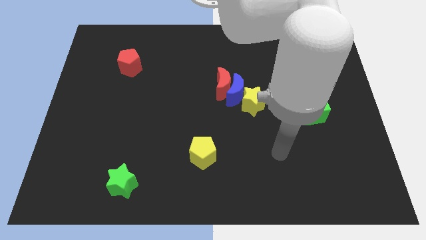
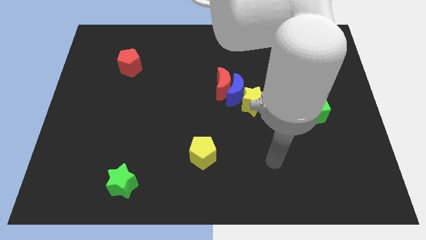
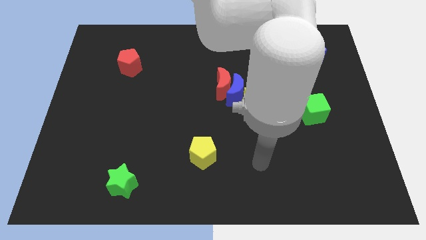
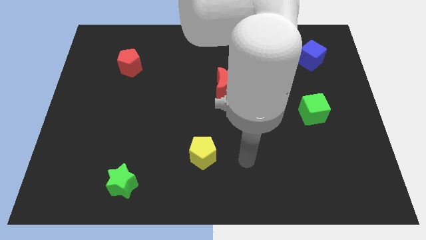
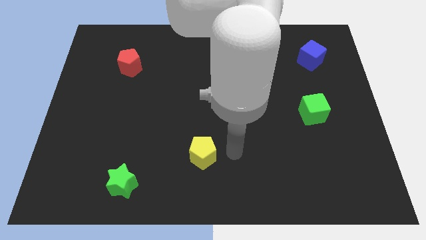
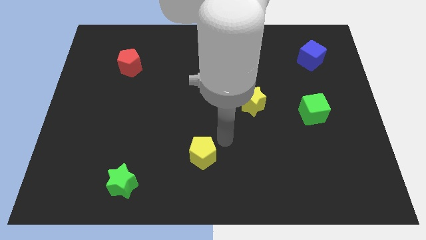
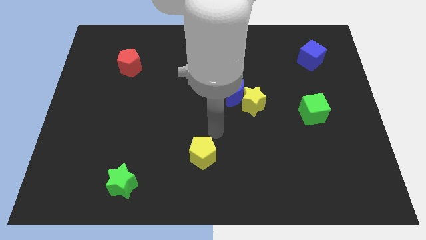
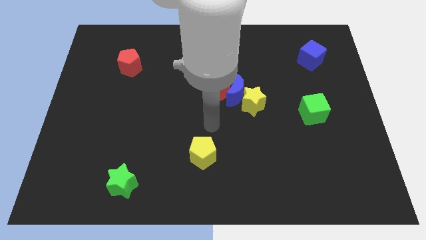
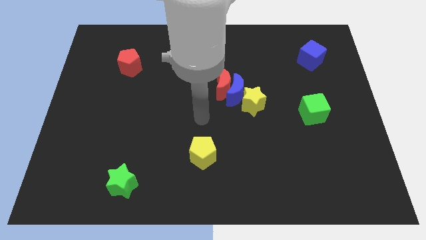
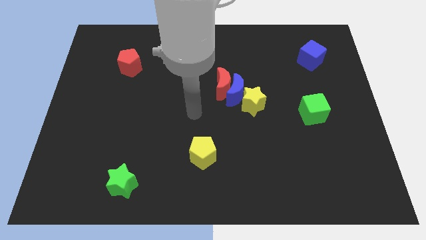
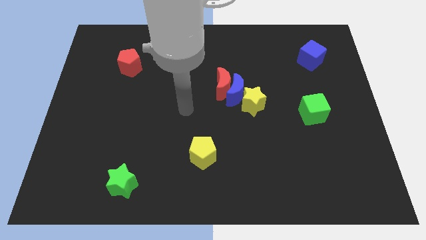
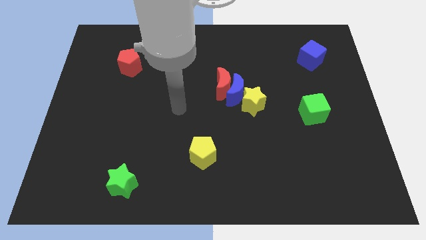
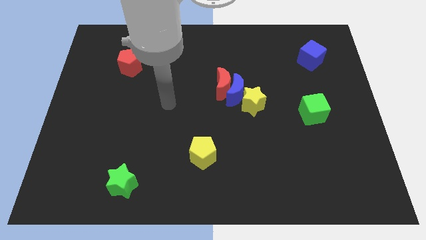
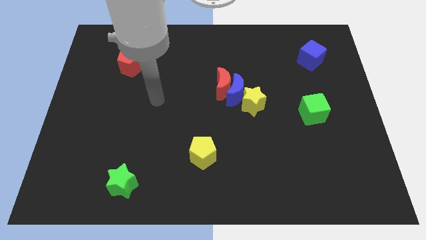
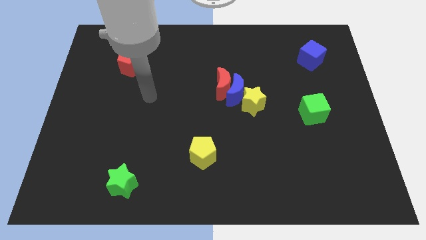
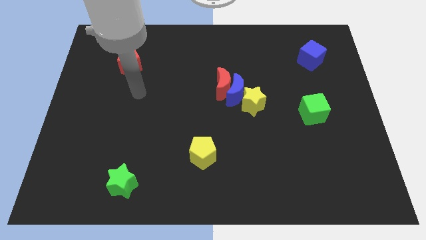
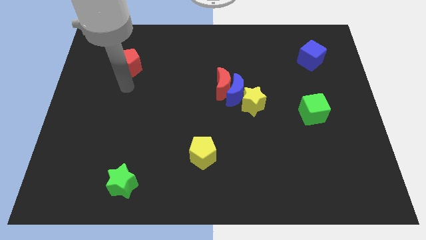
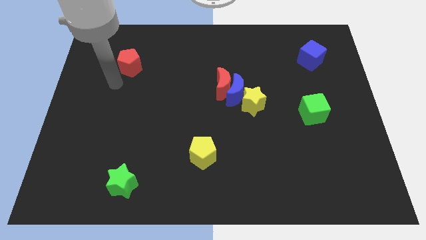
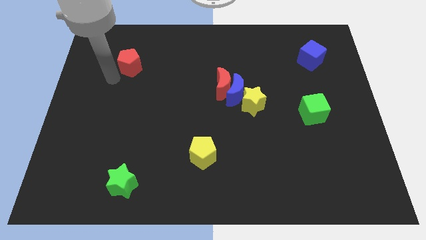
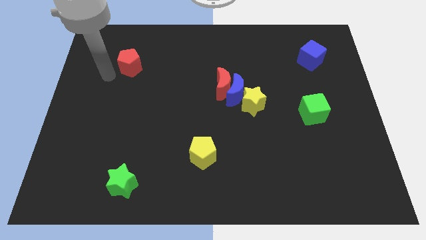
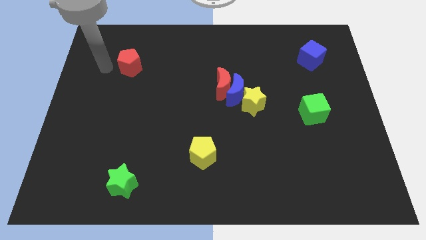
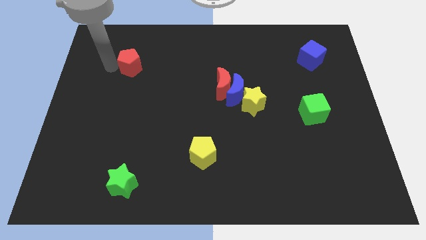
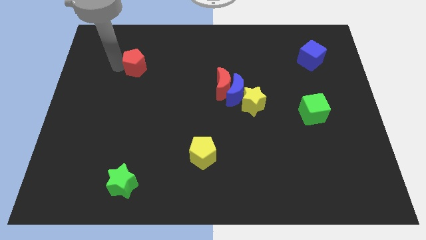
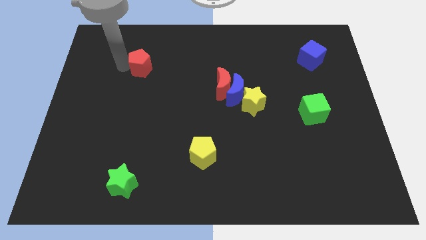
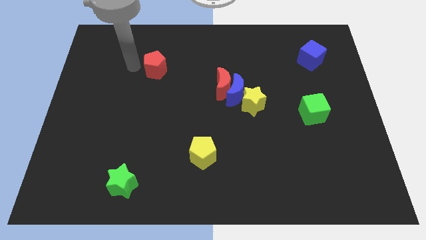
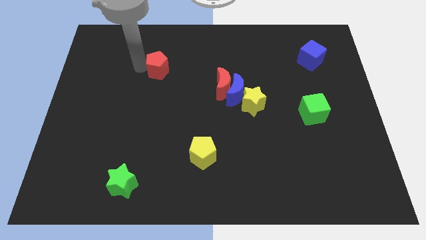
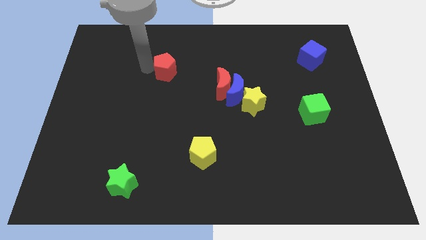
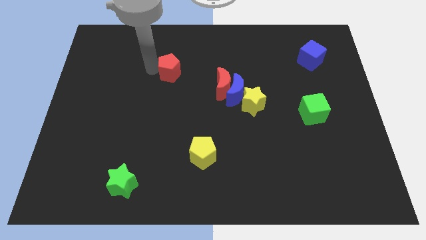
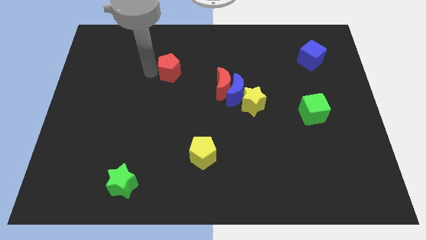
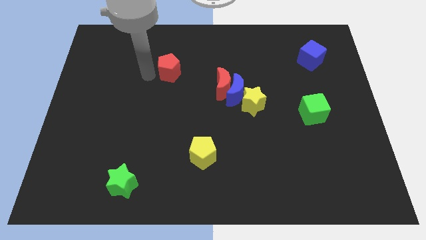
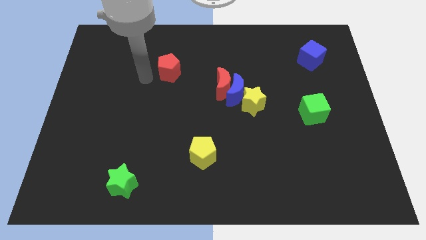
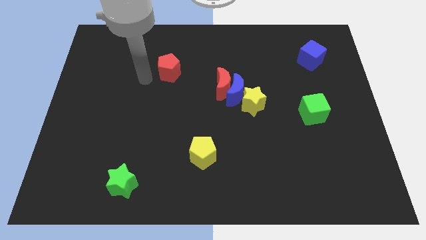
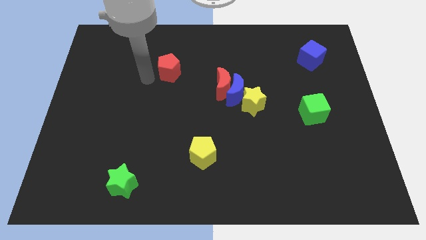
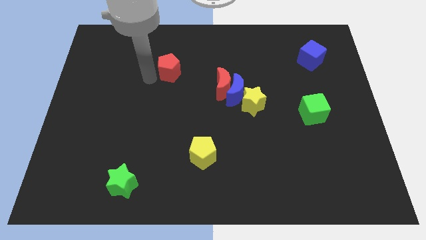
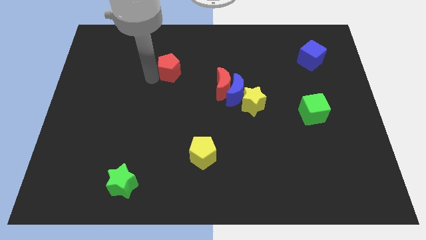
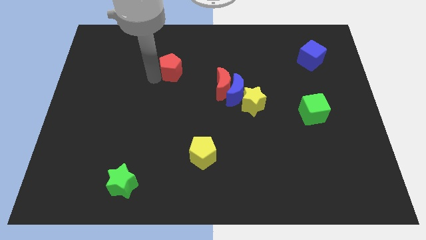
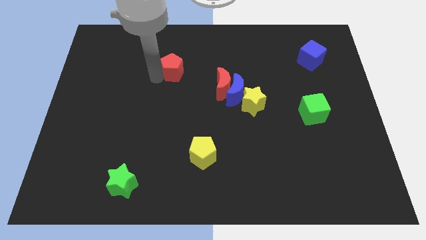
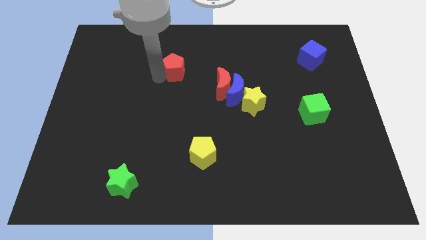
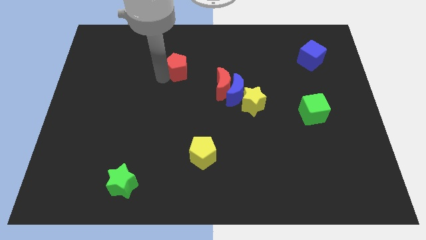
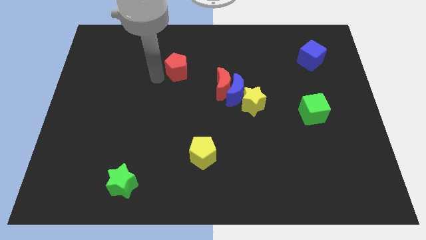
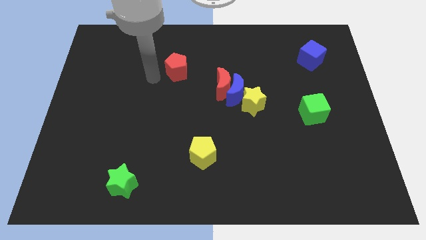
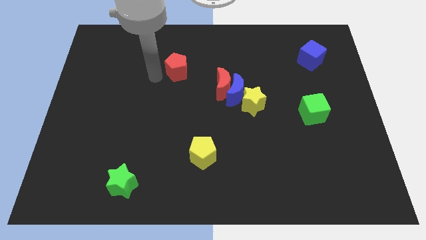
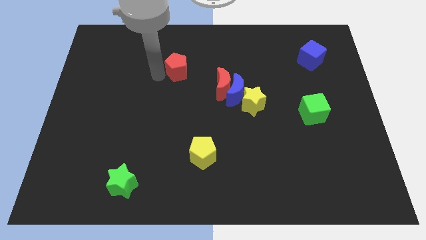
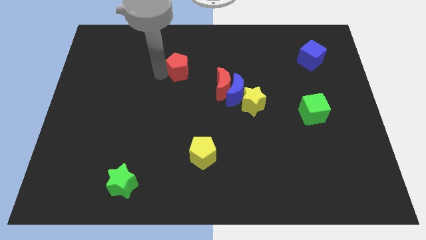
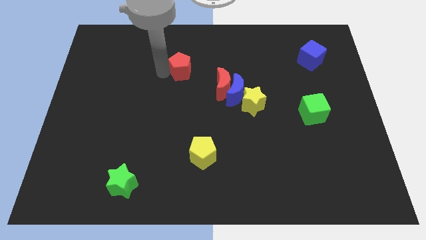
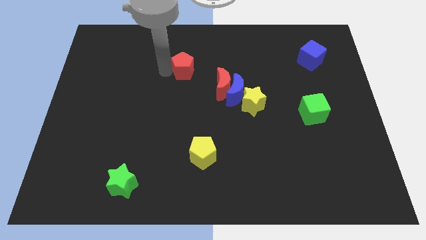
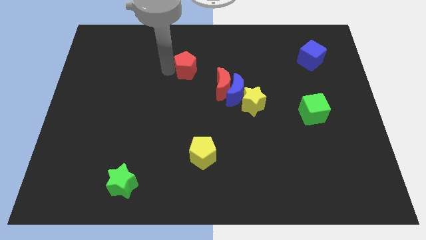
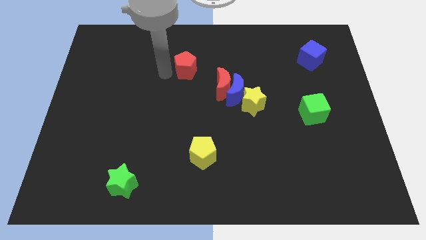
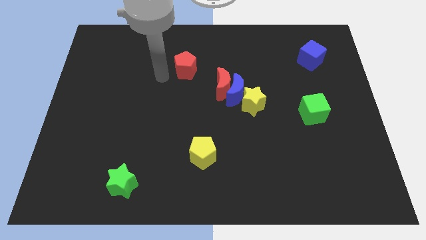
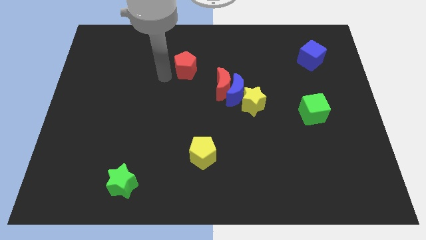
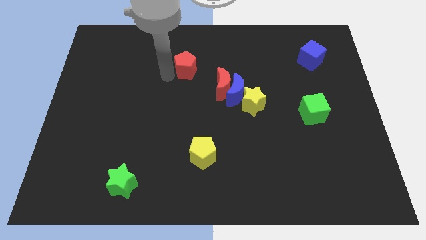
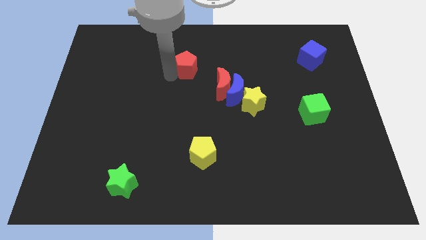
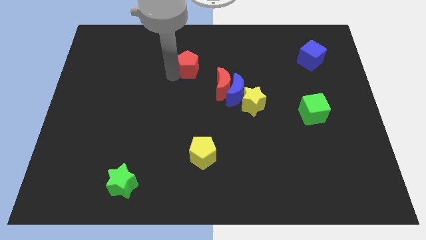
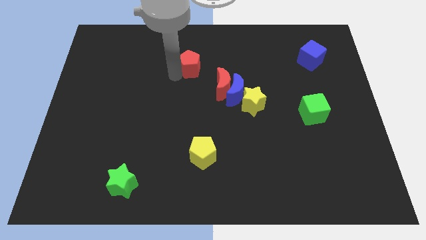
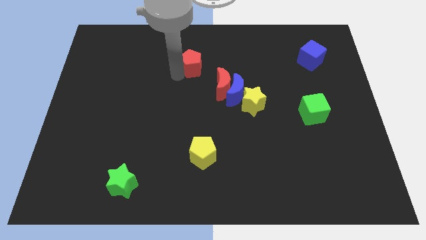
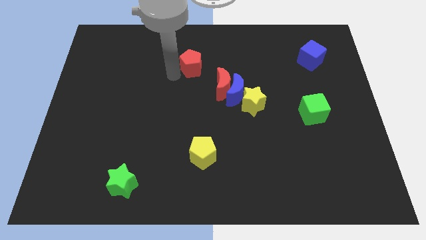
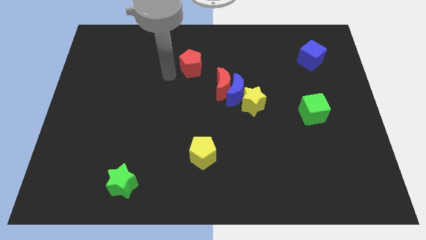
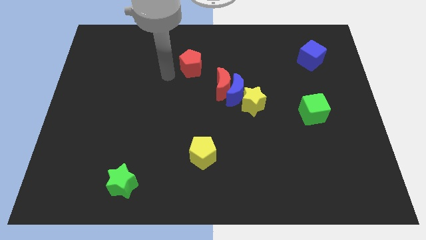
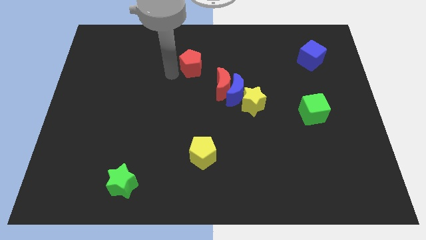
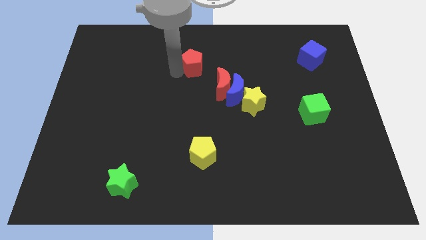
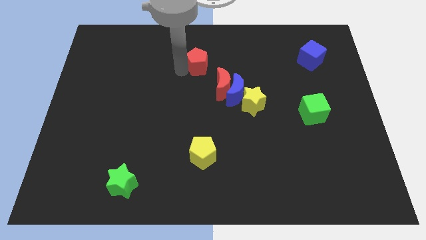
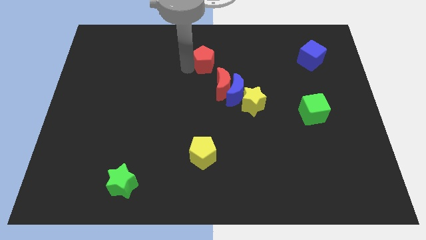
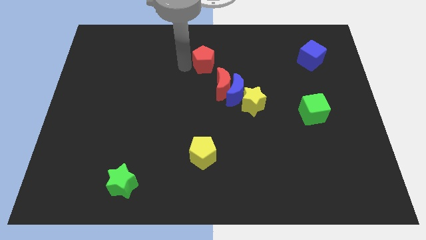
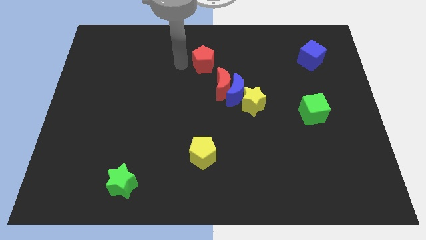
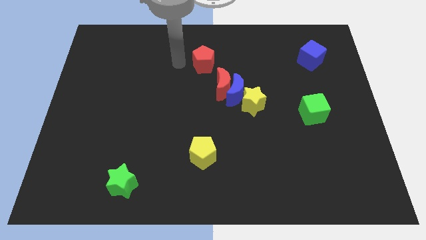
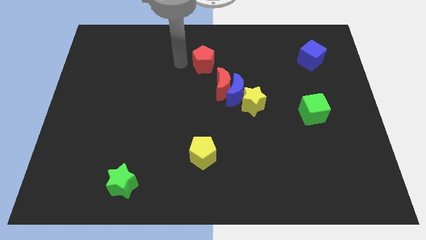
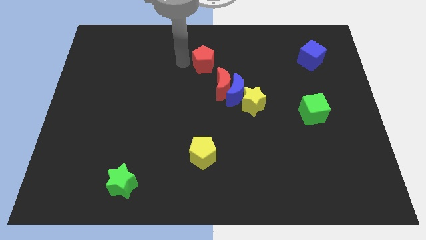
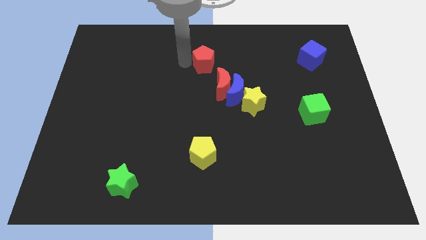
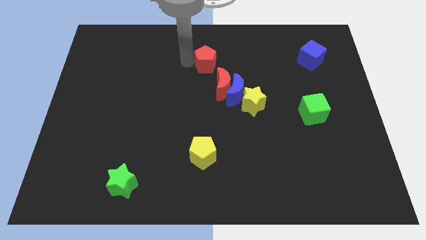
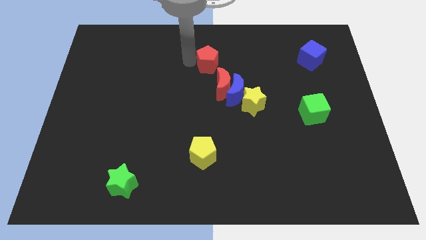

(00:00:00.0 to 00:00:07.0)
push the red pentagon right

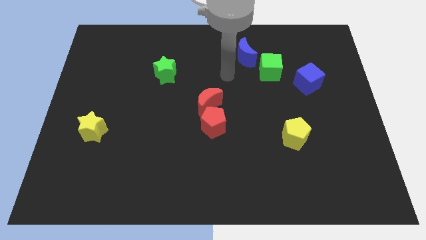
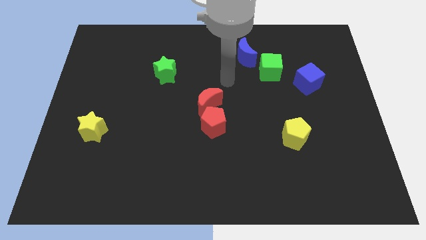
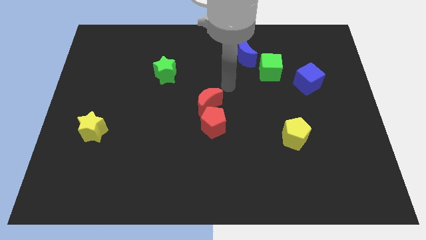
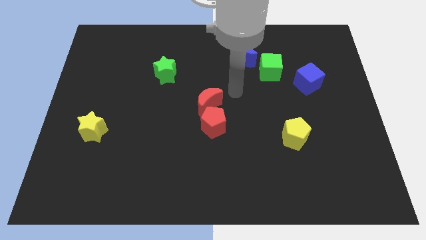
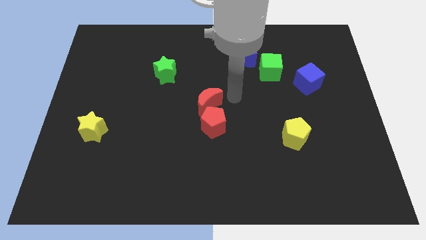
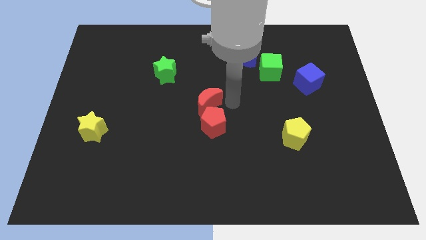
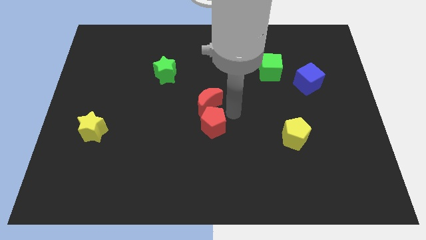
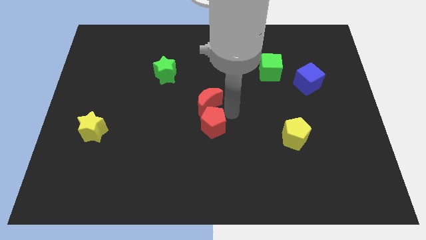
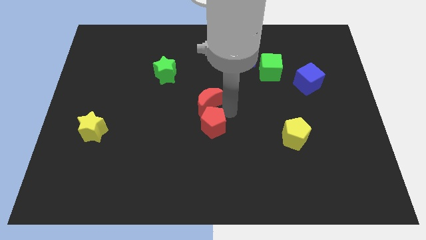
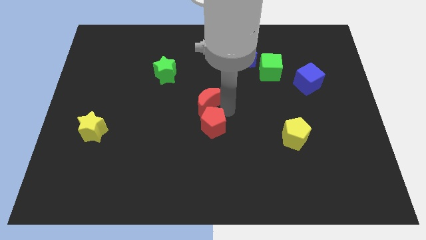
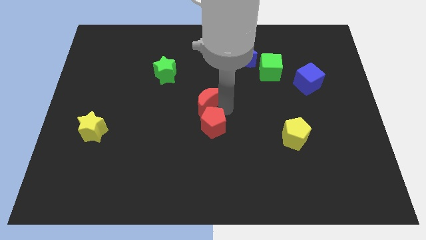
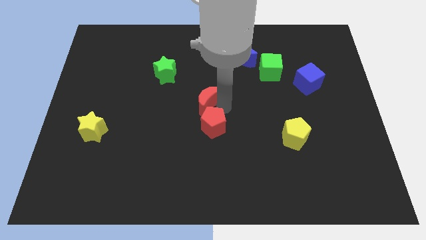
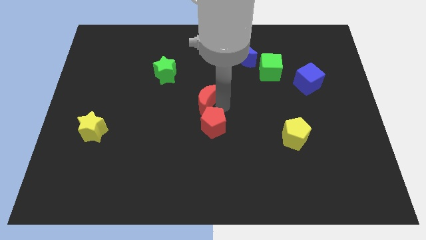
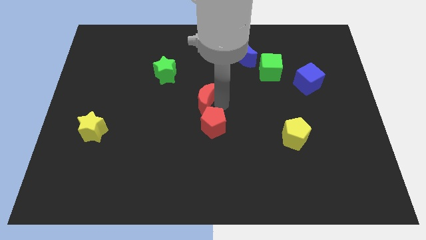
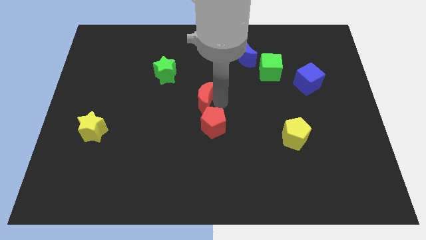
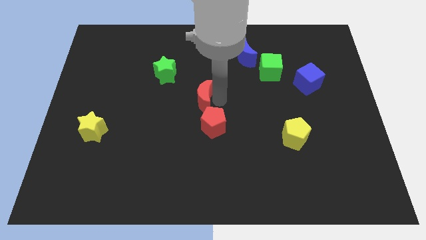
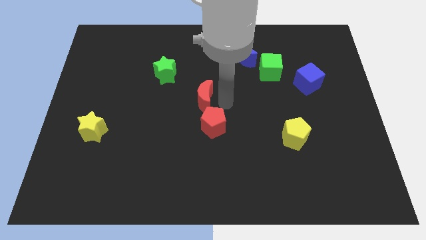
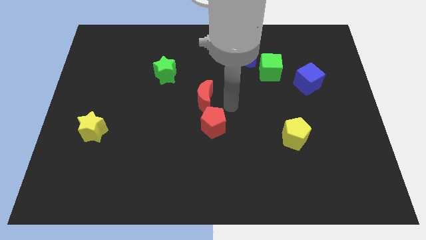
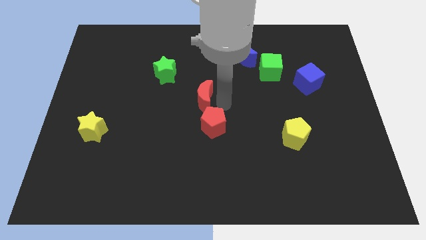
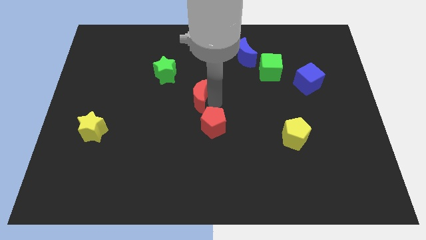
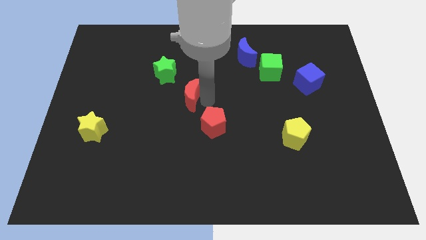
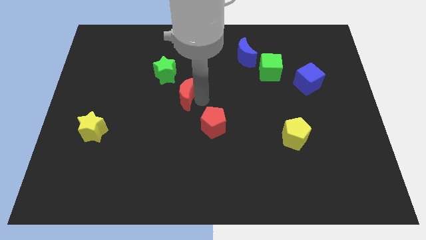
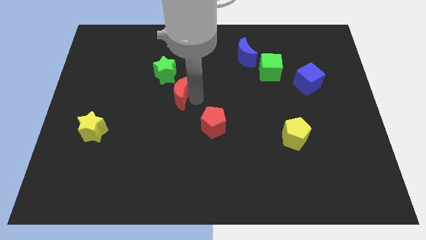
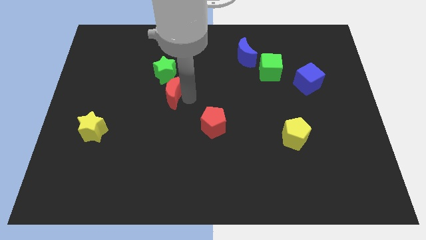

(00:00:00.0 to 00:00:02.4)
move the red moon slightly up and left diagonally
